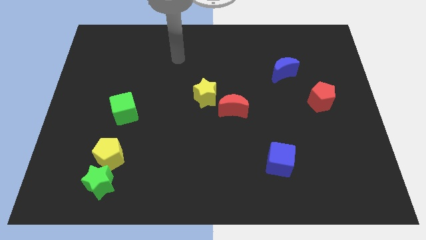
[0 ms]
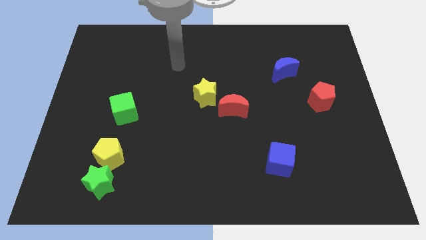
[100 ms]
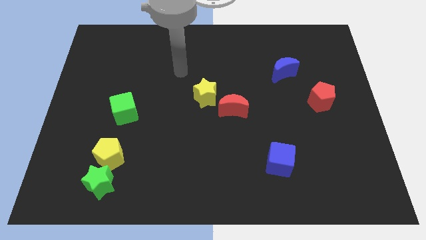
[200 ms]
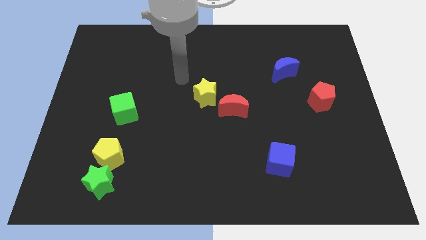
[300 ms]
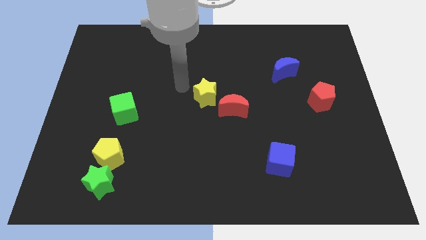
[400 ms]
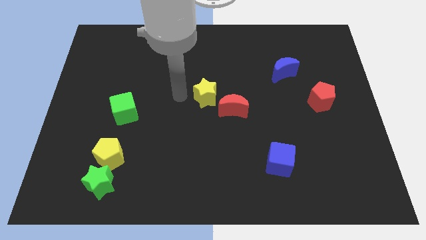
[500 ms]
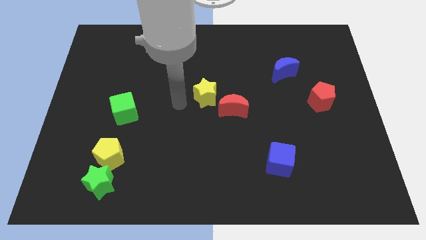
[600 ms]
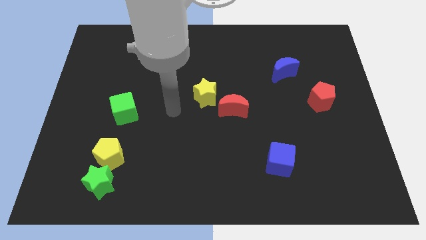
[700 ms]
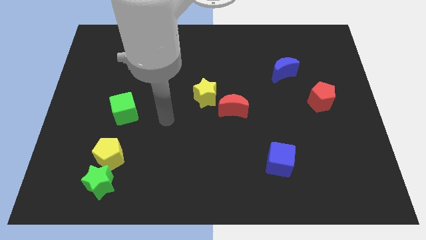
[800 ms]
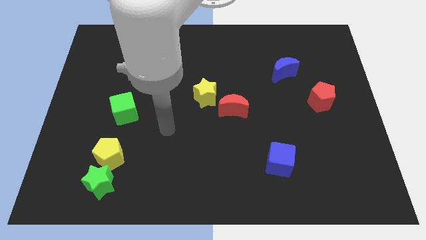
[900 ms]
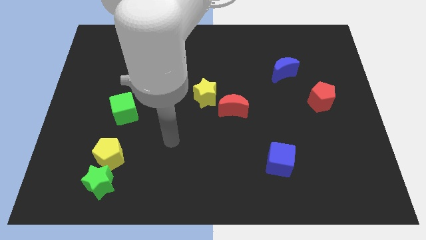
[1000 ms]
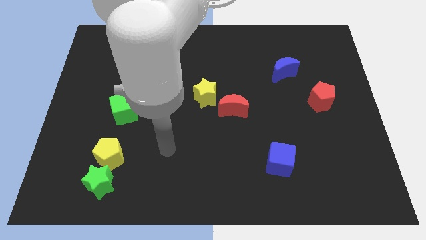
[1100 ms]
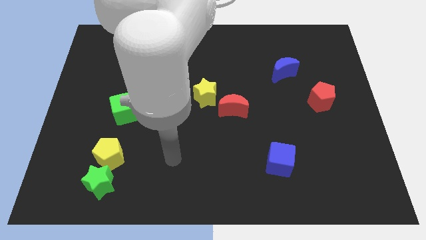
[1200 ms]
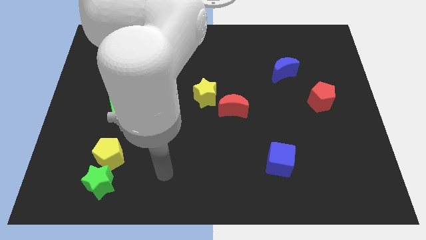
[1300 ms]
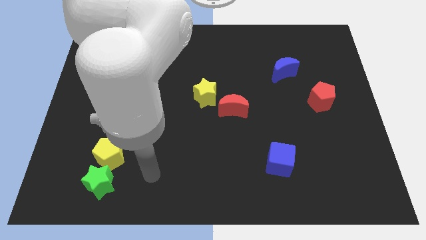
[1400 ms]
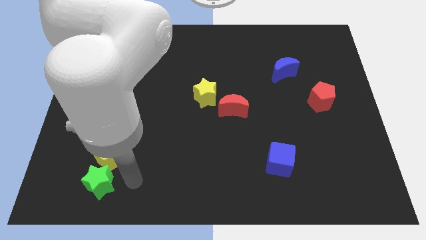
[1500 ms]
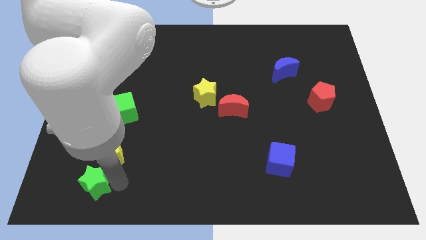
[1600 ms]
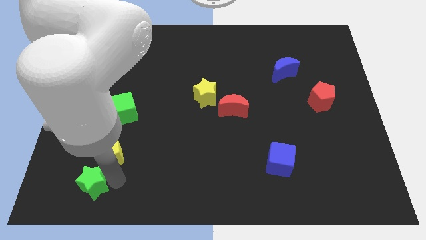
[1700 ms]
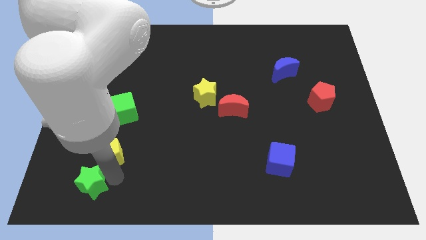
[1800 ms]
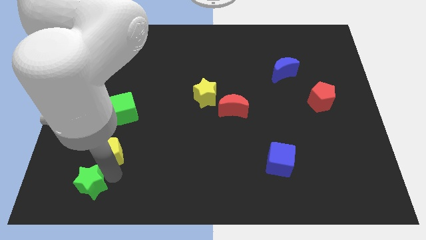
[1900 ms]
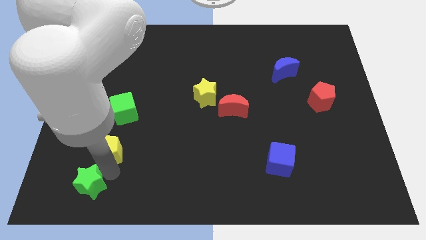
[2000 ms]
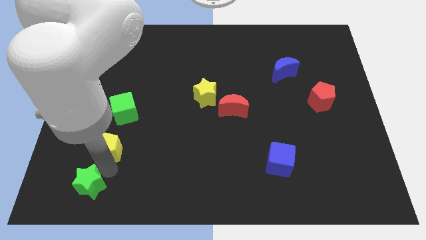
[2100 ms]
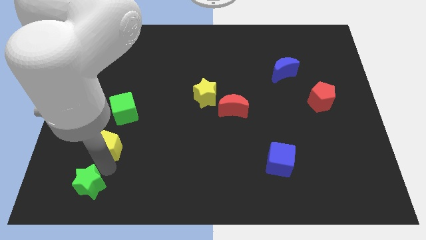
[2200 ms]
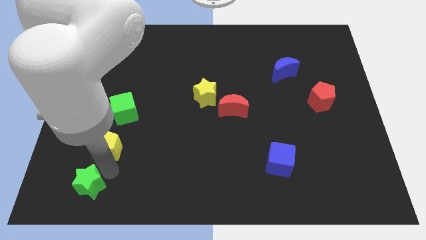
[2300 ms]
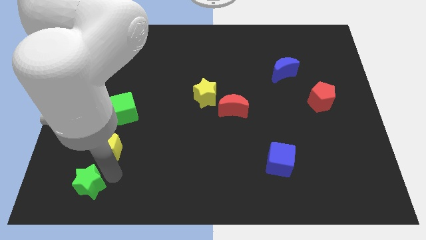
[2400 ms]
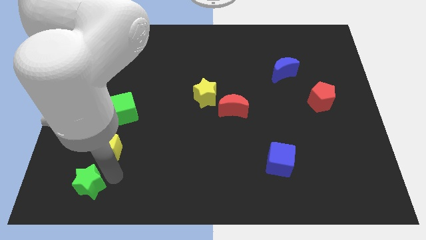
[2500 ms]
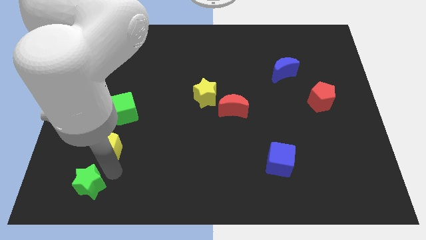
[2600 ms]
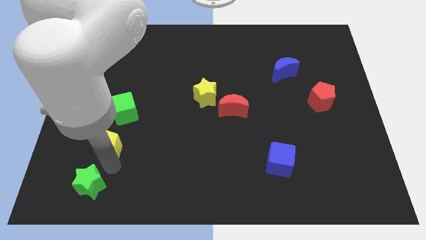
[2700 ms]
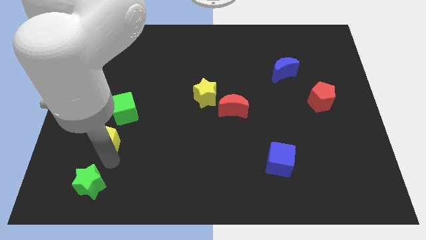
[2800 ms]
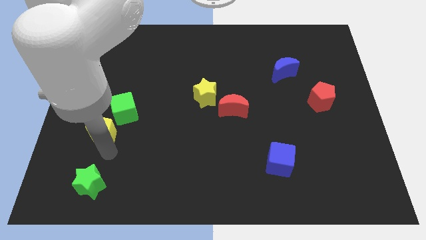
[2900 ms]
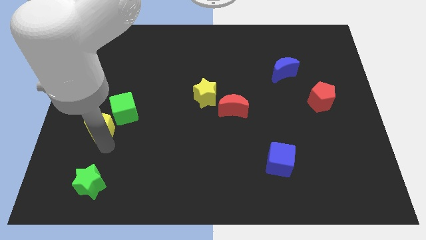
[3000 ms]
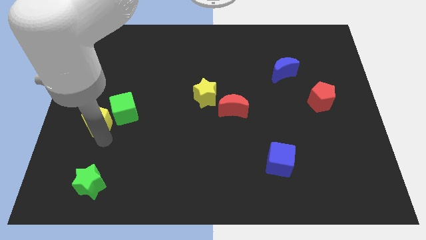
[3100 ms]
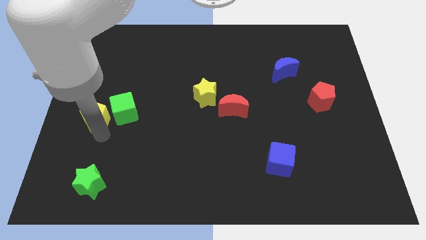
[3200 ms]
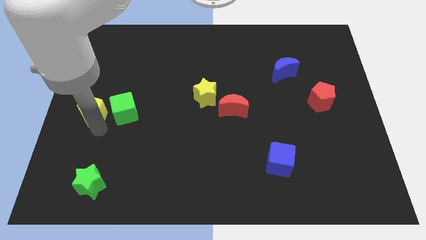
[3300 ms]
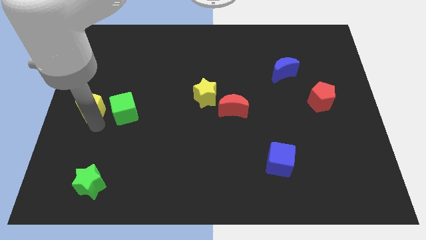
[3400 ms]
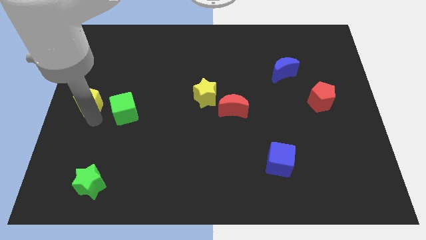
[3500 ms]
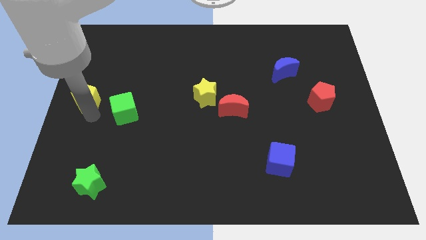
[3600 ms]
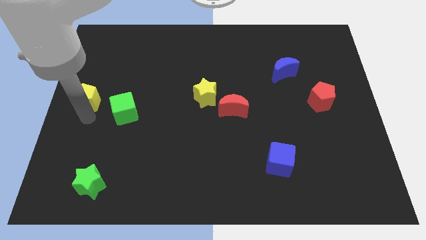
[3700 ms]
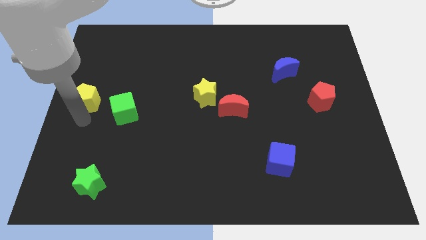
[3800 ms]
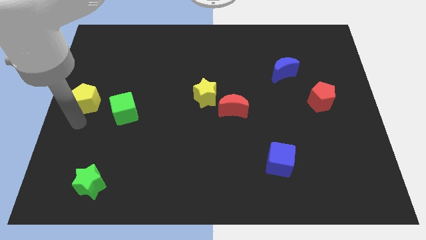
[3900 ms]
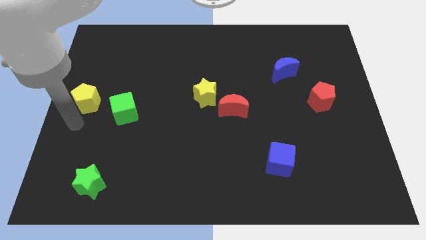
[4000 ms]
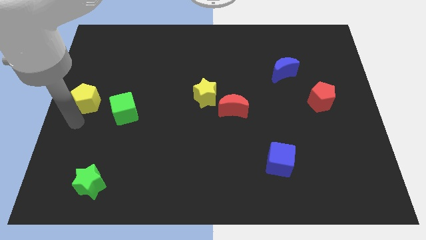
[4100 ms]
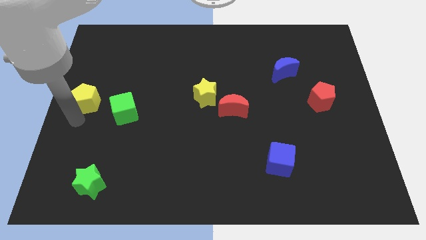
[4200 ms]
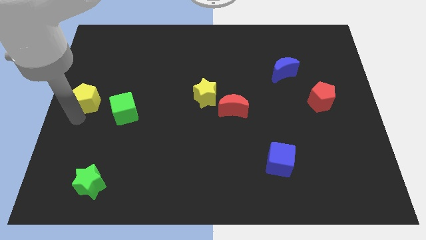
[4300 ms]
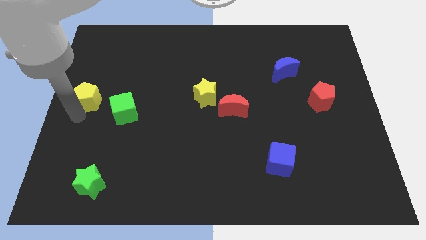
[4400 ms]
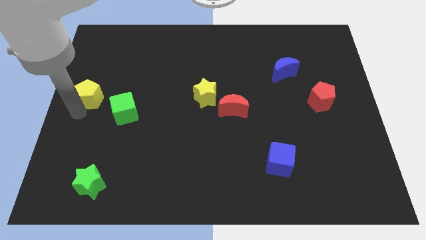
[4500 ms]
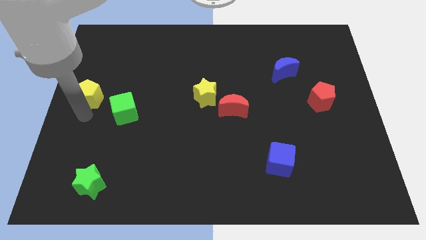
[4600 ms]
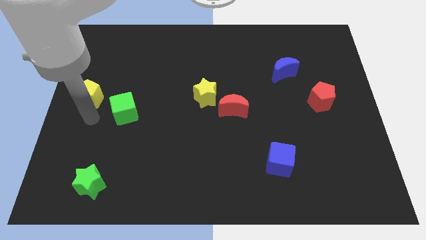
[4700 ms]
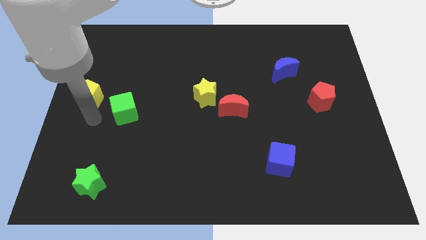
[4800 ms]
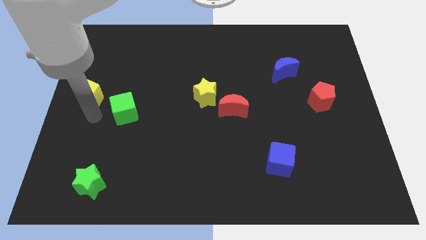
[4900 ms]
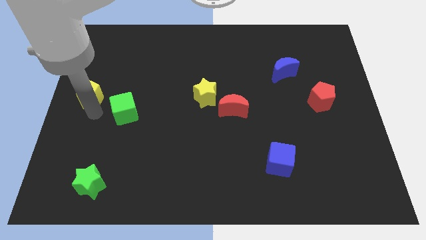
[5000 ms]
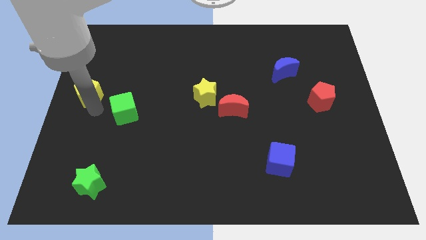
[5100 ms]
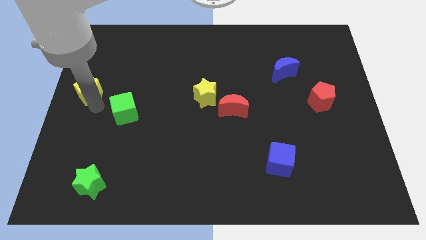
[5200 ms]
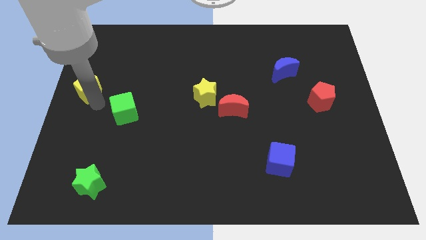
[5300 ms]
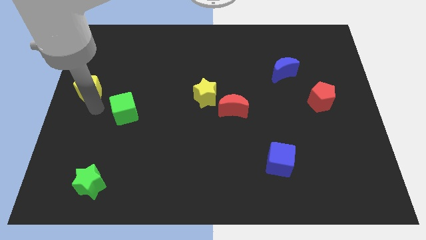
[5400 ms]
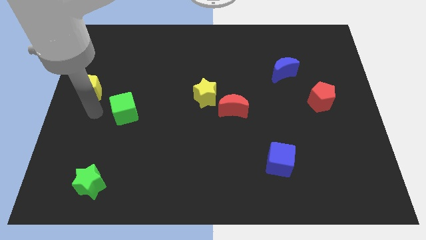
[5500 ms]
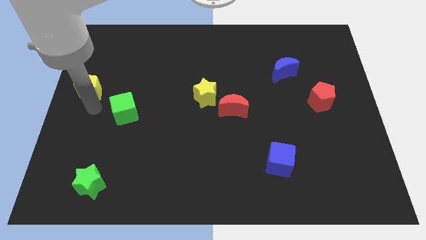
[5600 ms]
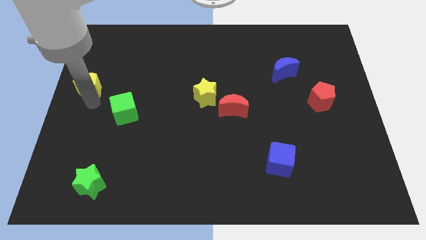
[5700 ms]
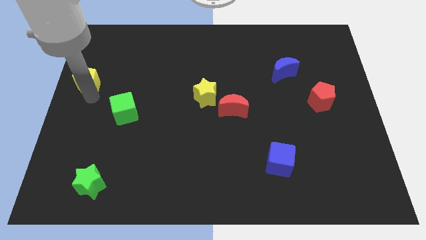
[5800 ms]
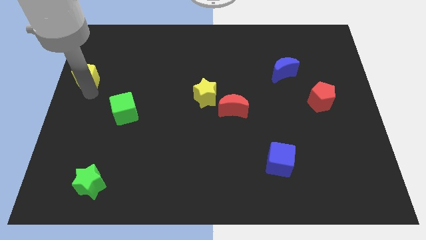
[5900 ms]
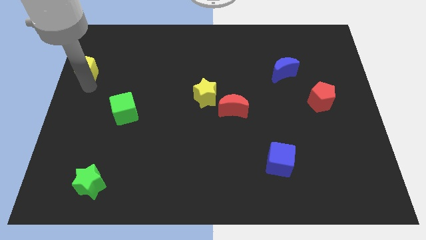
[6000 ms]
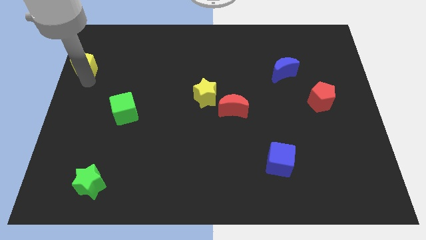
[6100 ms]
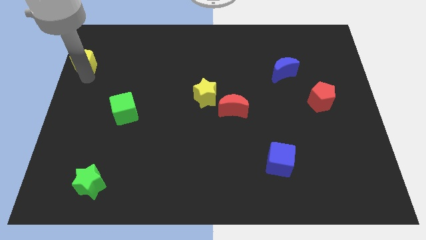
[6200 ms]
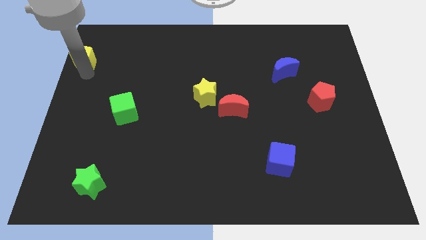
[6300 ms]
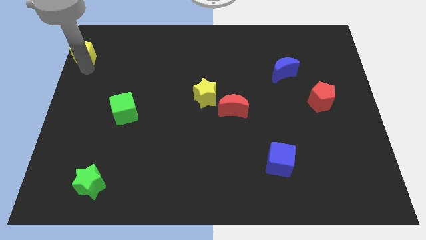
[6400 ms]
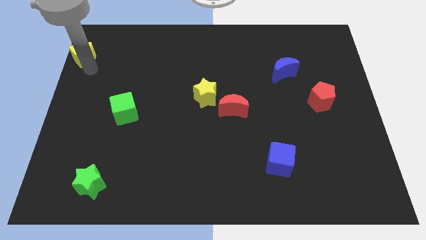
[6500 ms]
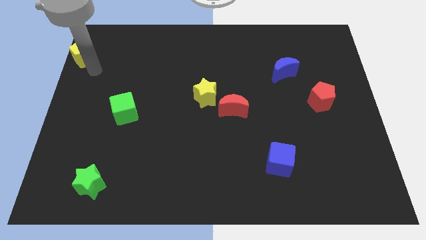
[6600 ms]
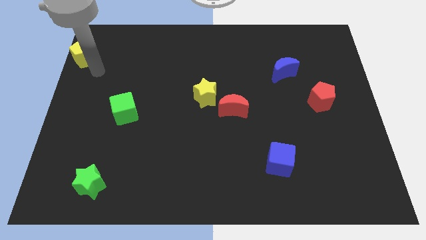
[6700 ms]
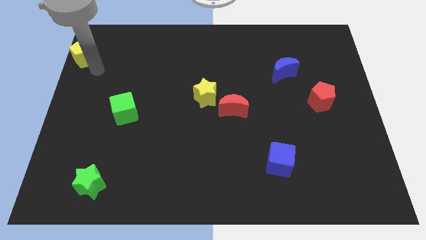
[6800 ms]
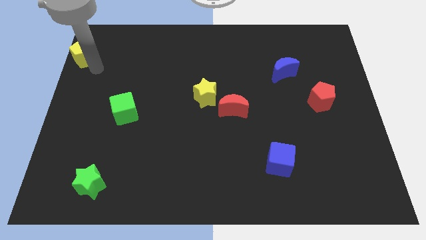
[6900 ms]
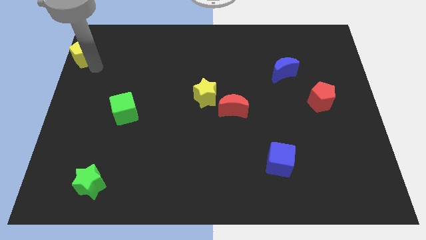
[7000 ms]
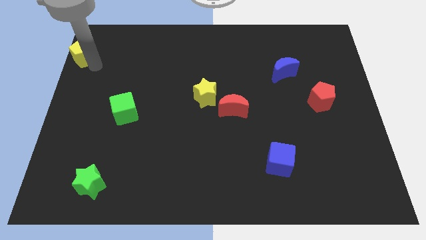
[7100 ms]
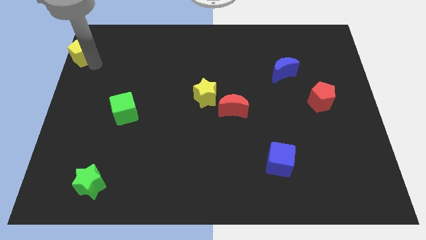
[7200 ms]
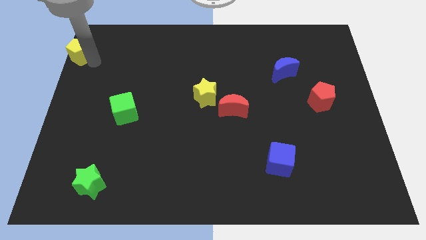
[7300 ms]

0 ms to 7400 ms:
slide the yellow pentagon to the top left
